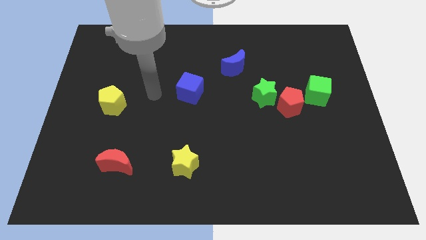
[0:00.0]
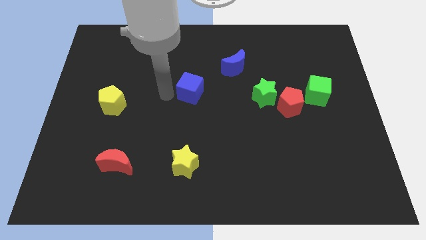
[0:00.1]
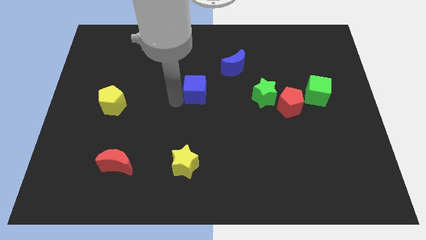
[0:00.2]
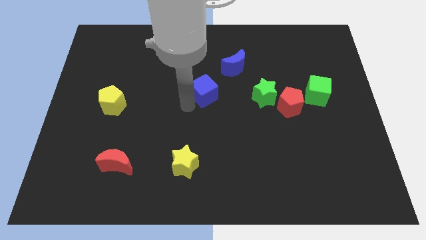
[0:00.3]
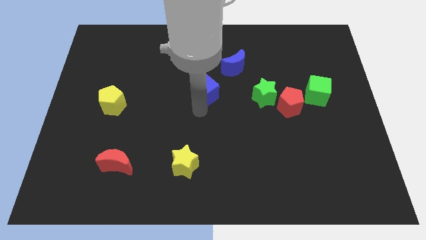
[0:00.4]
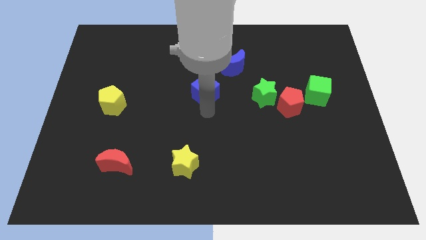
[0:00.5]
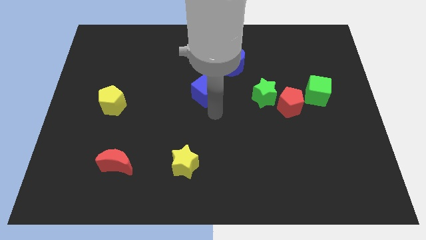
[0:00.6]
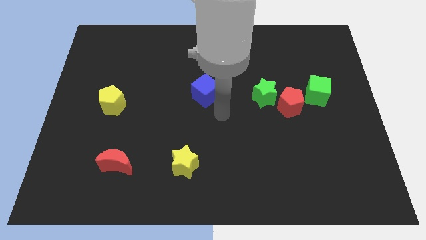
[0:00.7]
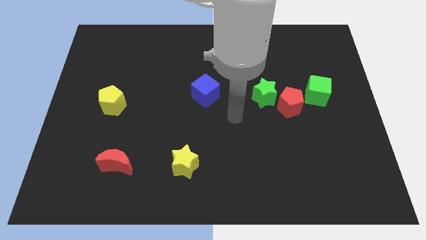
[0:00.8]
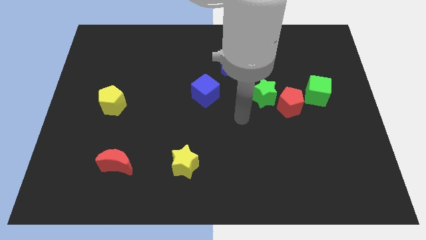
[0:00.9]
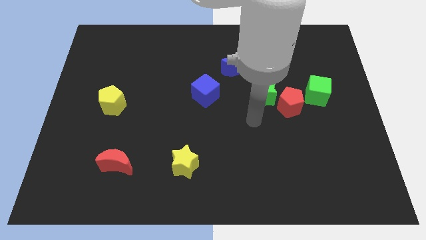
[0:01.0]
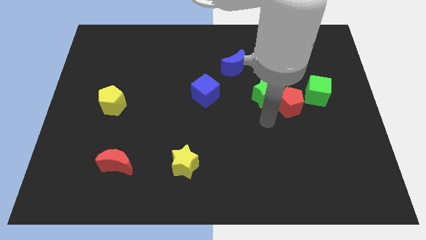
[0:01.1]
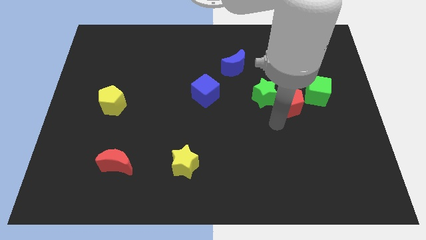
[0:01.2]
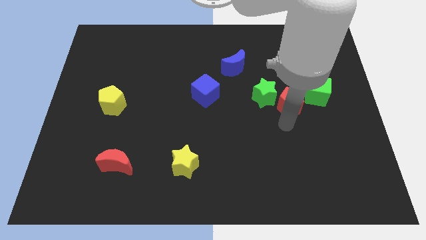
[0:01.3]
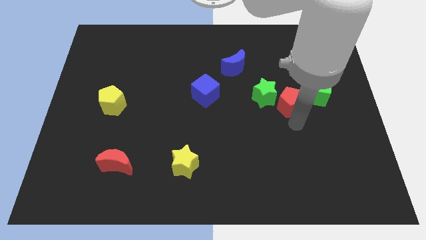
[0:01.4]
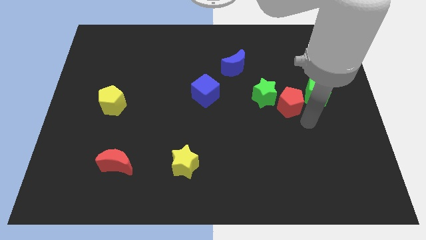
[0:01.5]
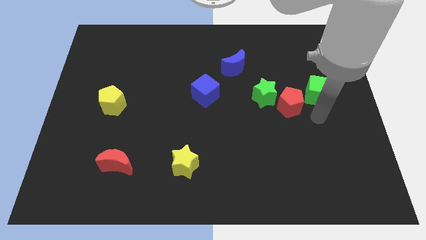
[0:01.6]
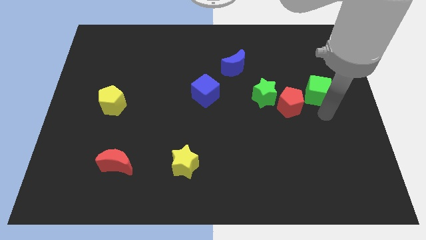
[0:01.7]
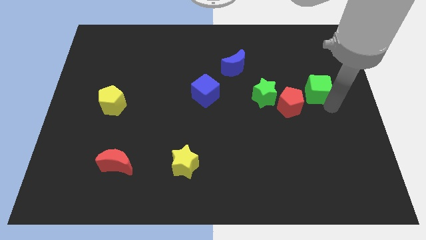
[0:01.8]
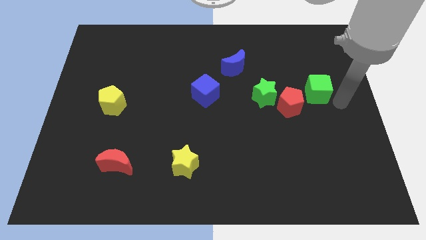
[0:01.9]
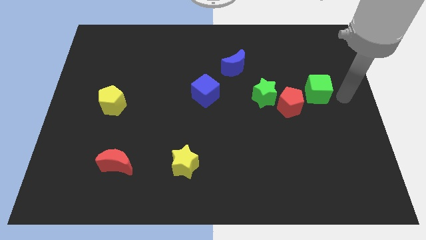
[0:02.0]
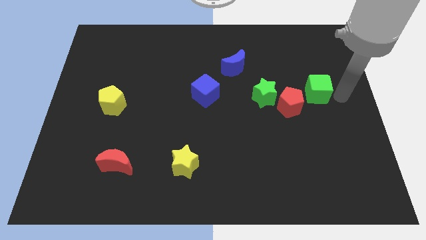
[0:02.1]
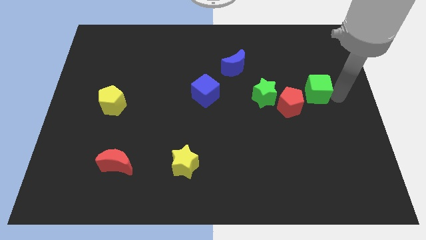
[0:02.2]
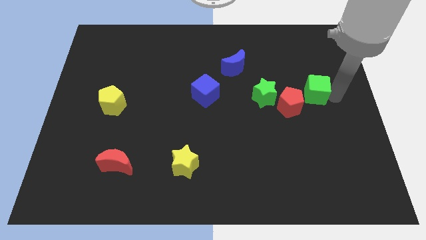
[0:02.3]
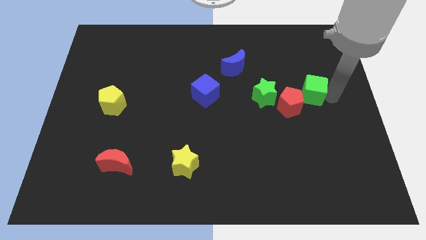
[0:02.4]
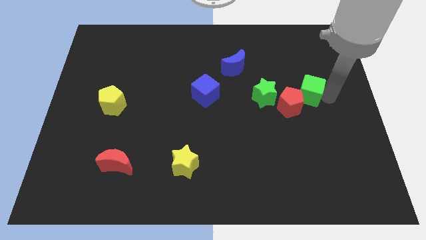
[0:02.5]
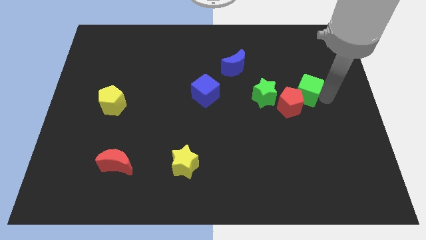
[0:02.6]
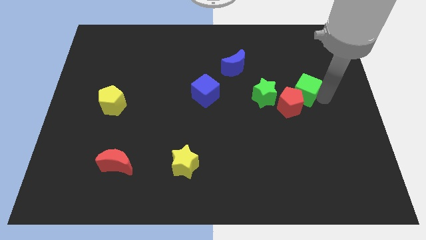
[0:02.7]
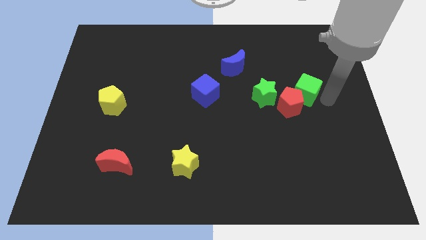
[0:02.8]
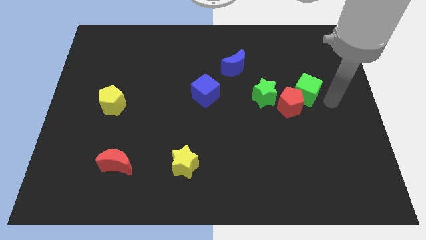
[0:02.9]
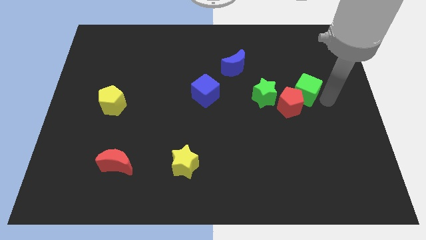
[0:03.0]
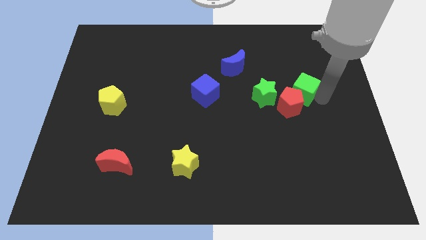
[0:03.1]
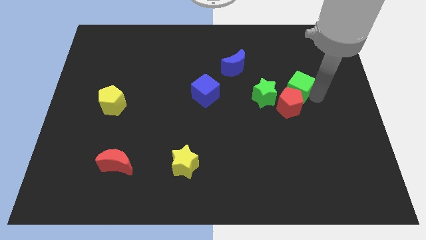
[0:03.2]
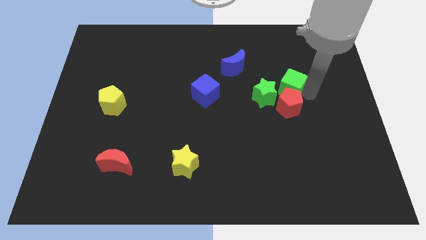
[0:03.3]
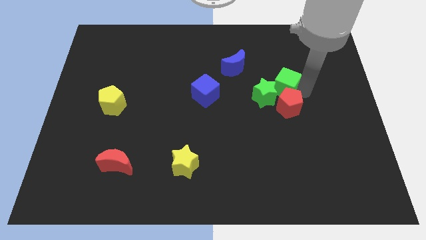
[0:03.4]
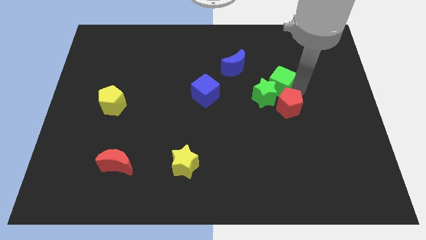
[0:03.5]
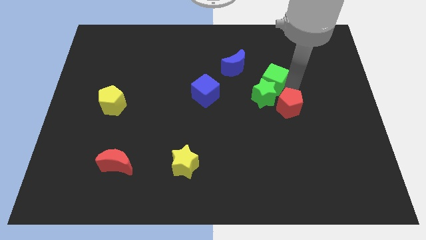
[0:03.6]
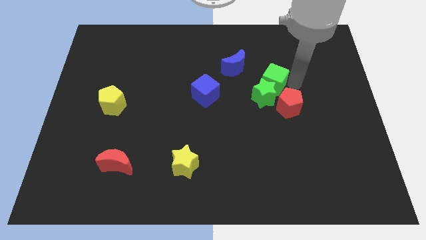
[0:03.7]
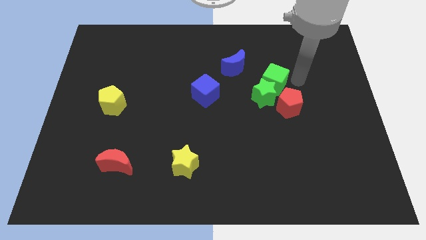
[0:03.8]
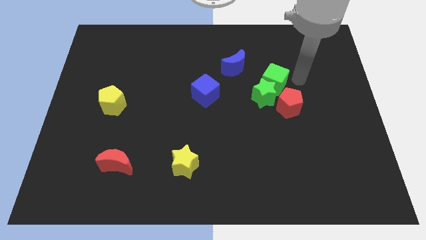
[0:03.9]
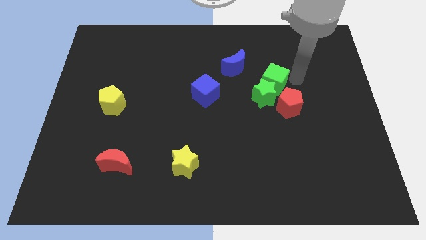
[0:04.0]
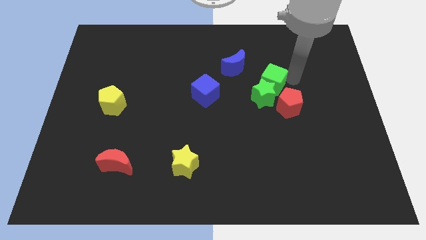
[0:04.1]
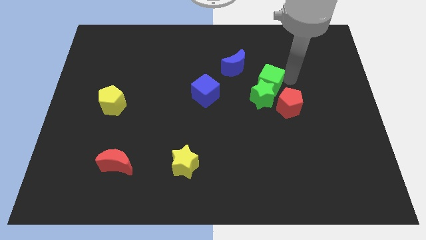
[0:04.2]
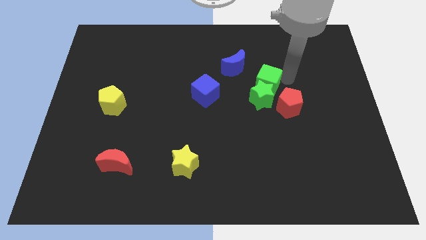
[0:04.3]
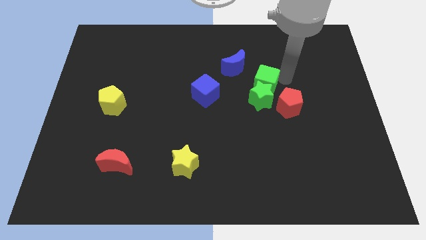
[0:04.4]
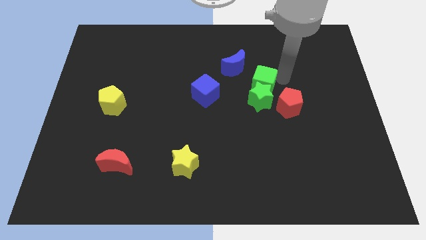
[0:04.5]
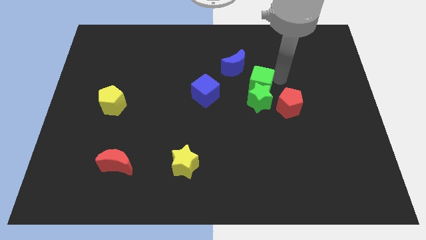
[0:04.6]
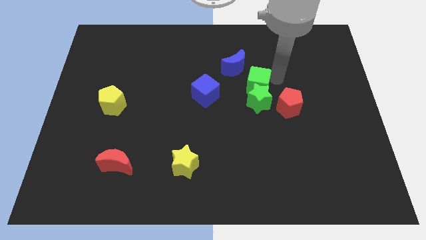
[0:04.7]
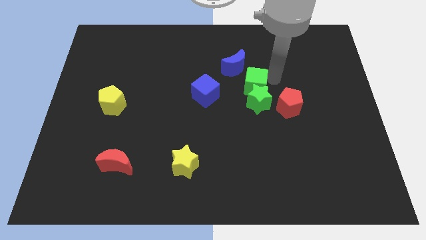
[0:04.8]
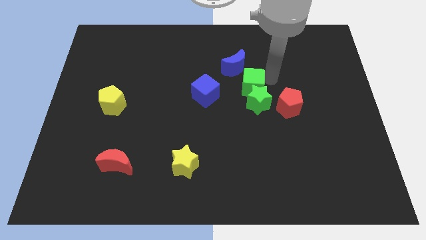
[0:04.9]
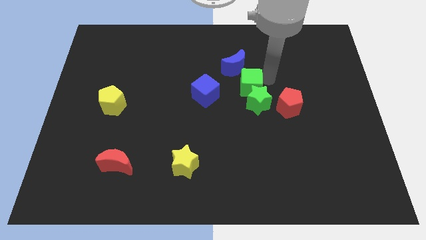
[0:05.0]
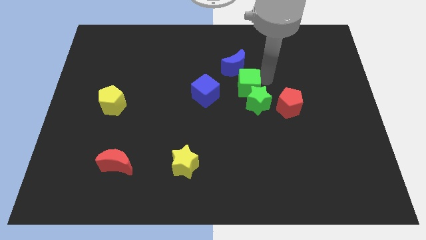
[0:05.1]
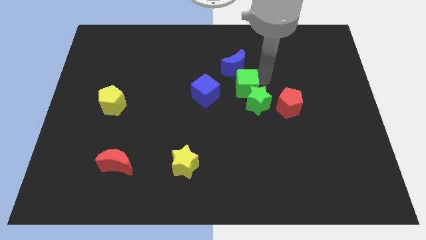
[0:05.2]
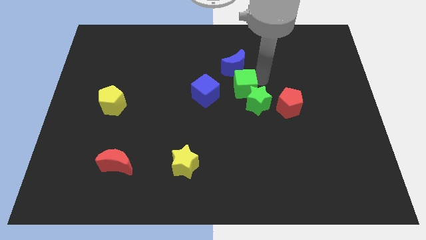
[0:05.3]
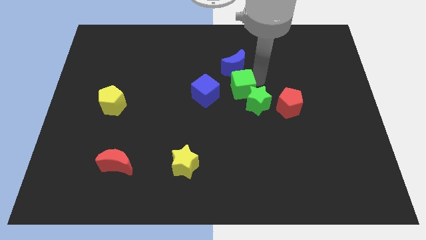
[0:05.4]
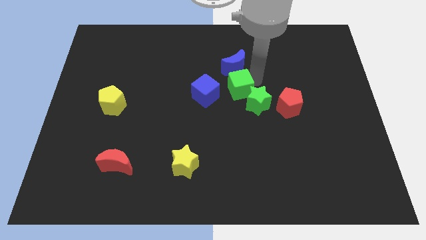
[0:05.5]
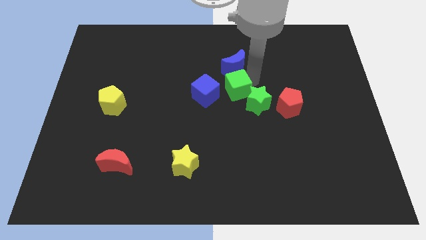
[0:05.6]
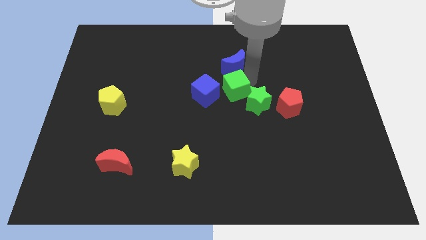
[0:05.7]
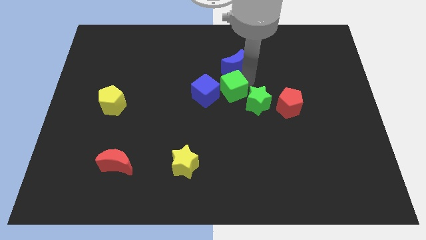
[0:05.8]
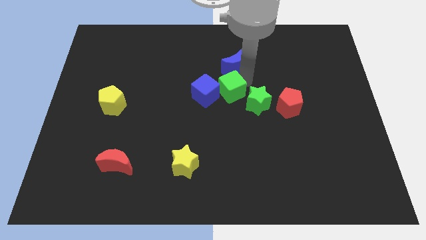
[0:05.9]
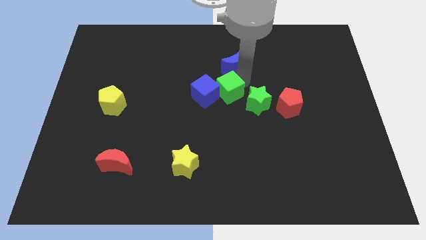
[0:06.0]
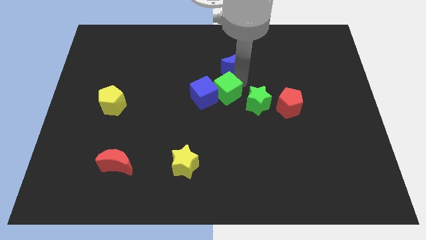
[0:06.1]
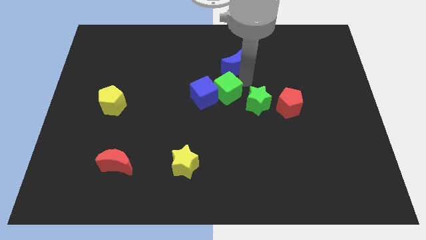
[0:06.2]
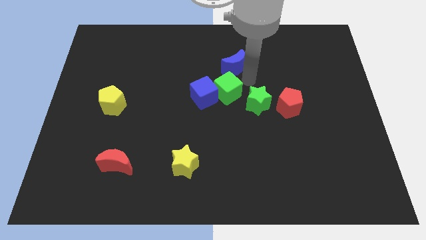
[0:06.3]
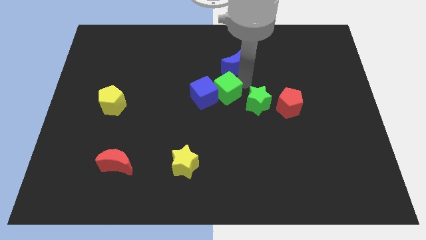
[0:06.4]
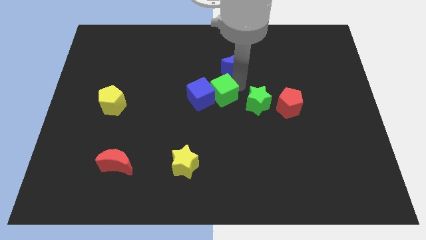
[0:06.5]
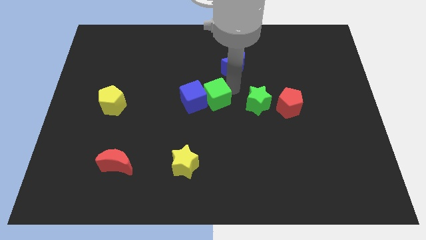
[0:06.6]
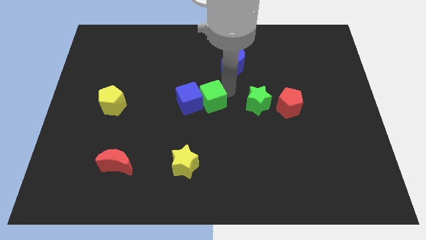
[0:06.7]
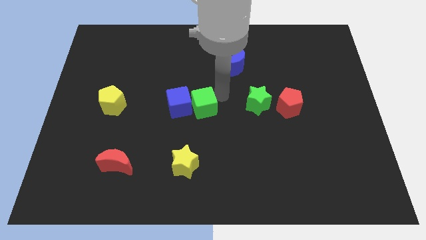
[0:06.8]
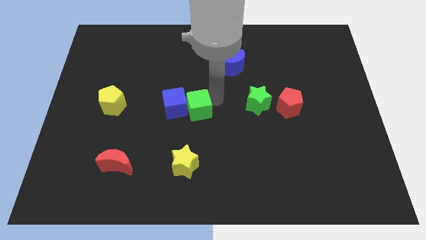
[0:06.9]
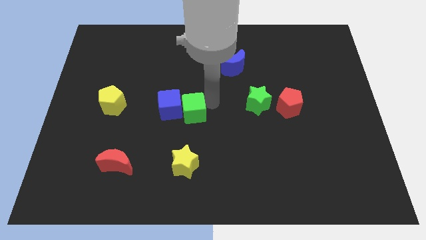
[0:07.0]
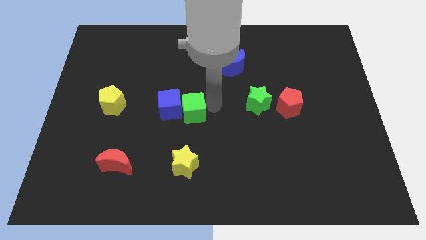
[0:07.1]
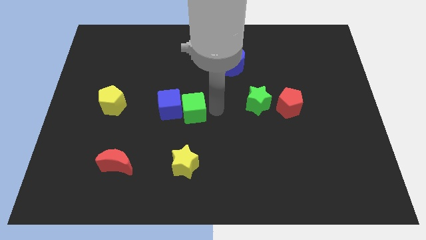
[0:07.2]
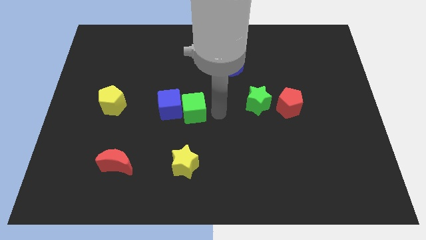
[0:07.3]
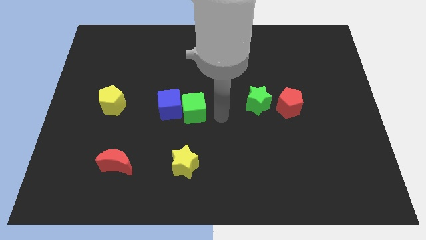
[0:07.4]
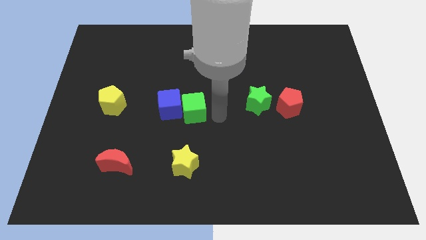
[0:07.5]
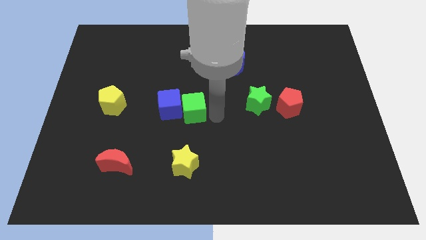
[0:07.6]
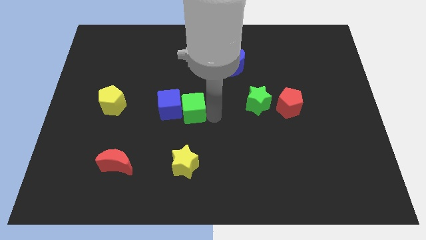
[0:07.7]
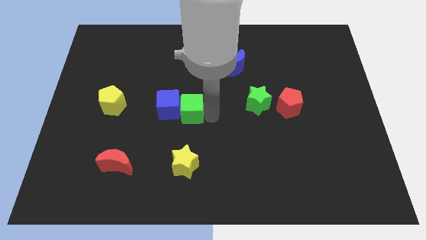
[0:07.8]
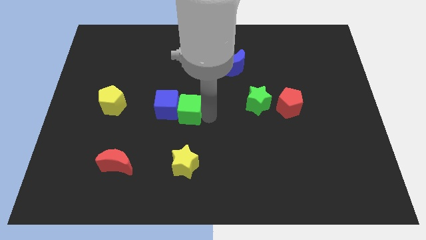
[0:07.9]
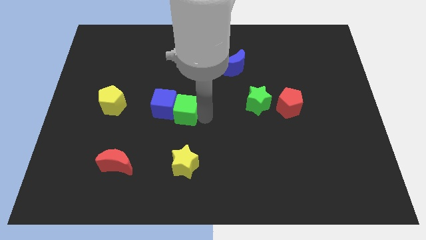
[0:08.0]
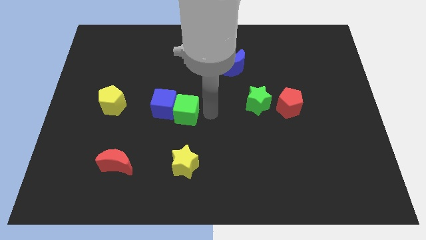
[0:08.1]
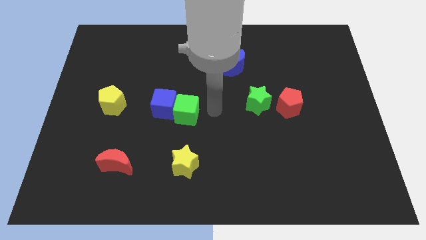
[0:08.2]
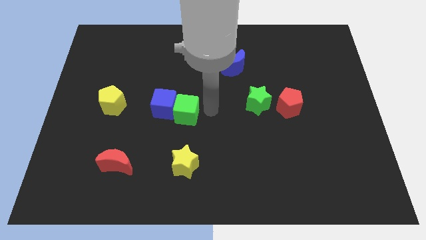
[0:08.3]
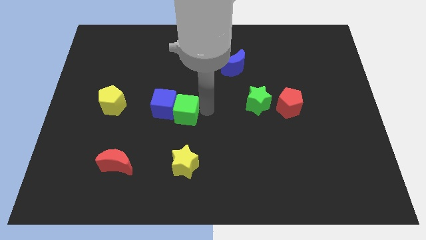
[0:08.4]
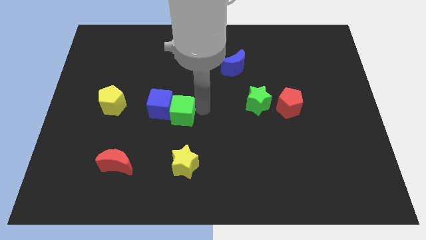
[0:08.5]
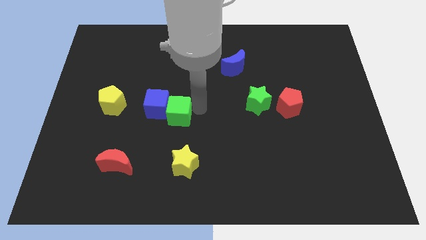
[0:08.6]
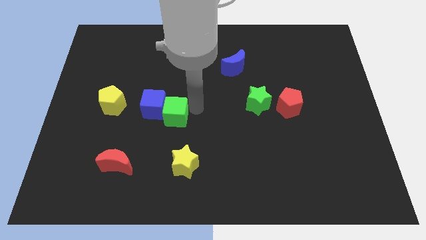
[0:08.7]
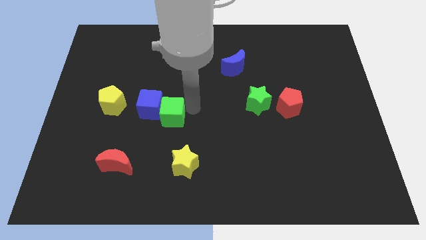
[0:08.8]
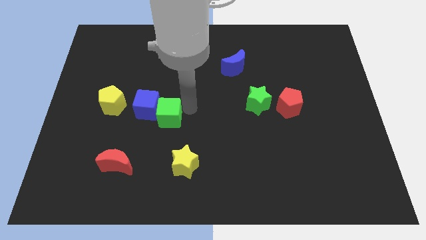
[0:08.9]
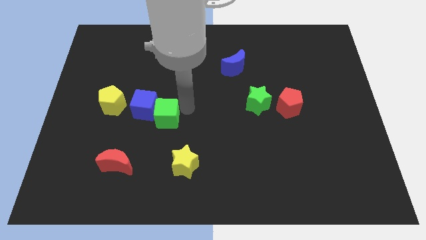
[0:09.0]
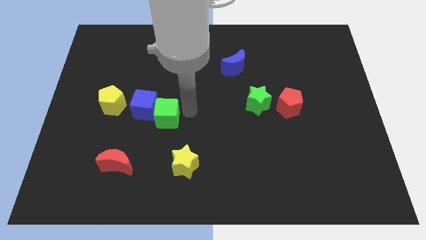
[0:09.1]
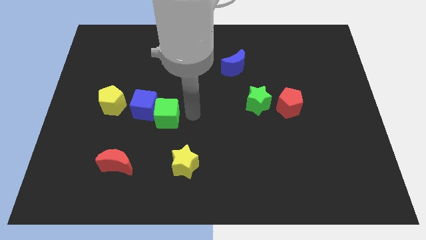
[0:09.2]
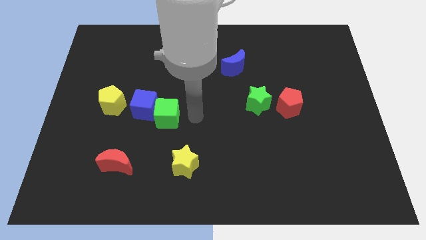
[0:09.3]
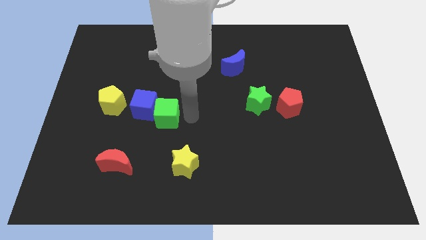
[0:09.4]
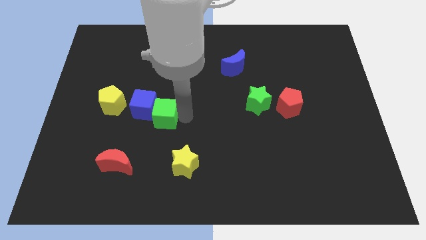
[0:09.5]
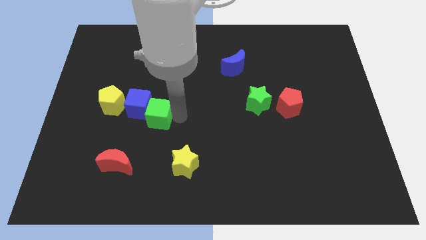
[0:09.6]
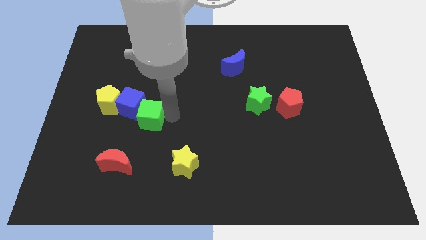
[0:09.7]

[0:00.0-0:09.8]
put the green cube to the bottom right of the yellow pentagon
